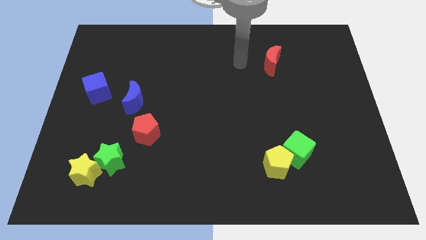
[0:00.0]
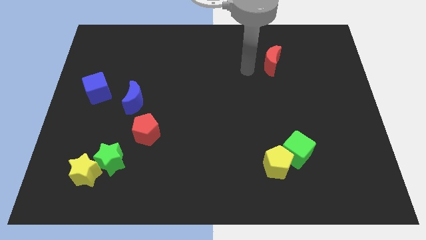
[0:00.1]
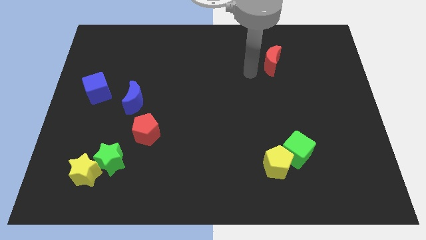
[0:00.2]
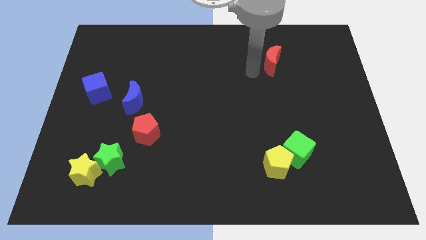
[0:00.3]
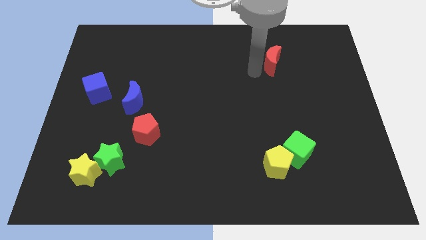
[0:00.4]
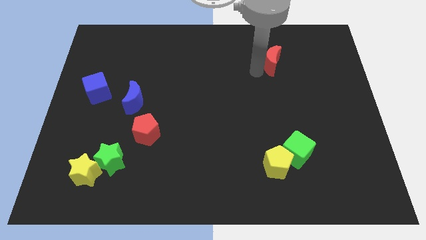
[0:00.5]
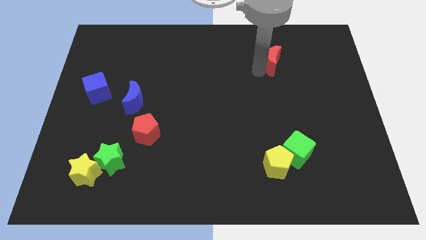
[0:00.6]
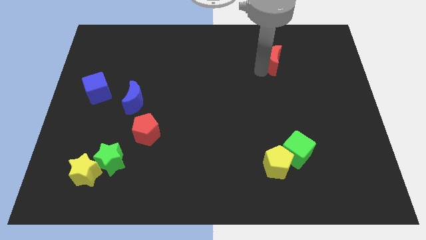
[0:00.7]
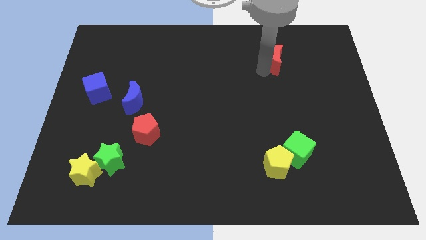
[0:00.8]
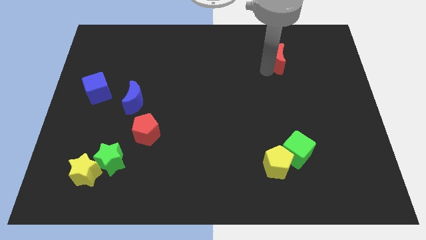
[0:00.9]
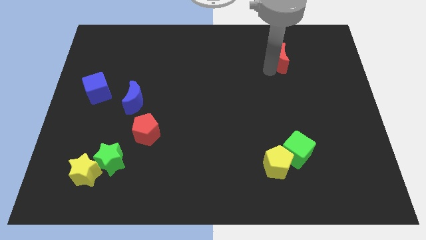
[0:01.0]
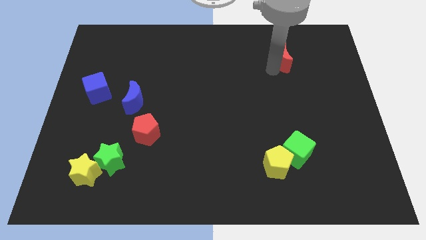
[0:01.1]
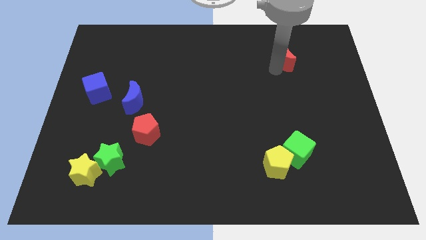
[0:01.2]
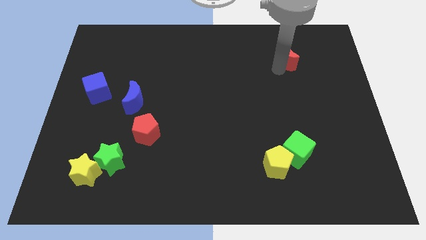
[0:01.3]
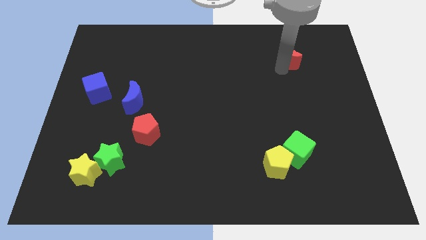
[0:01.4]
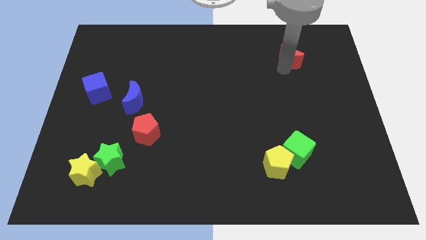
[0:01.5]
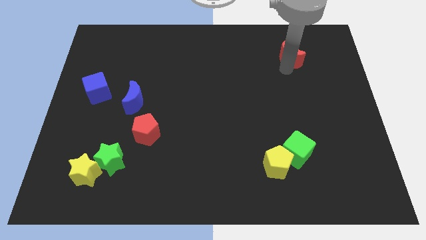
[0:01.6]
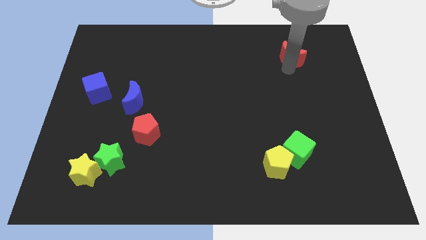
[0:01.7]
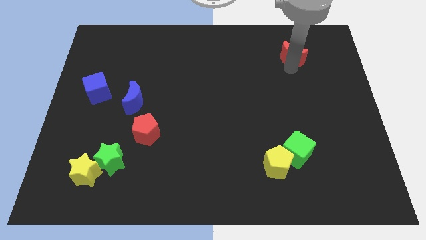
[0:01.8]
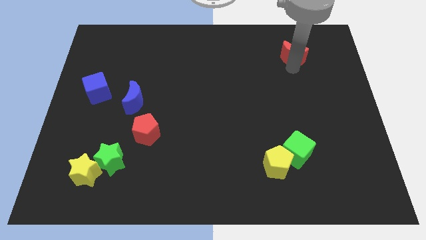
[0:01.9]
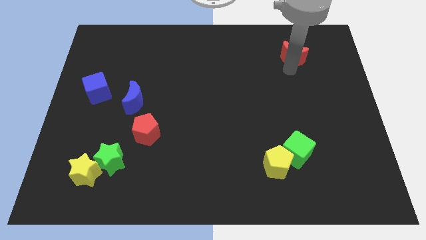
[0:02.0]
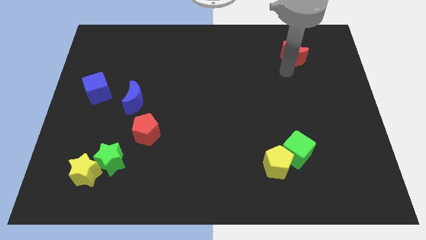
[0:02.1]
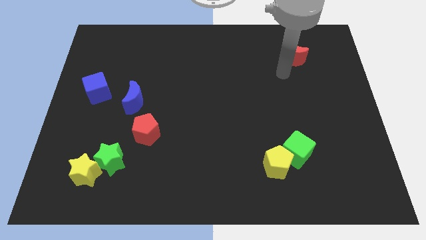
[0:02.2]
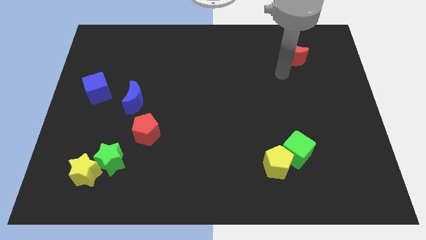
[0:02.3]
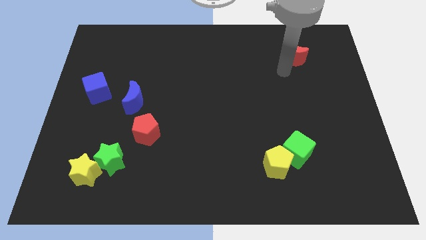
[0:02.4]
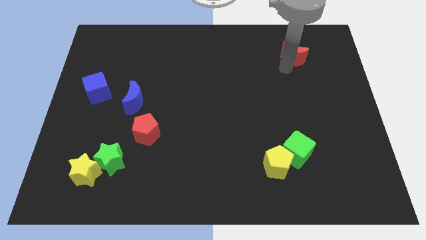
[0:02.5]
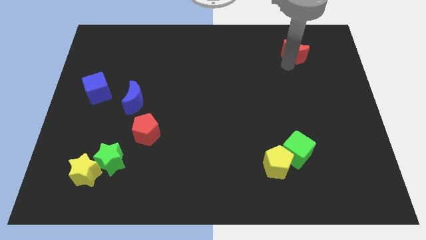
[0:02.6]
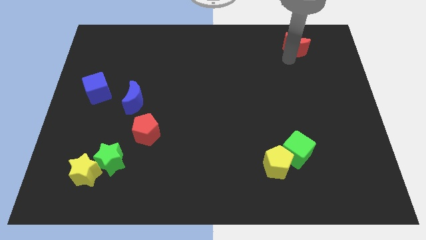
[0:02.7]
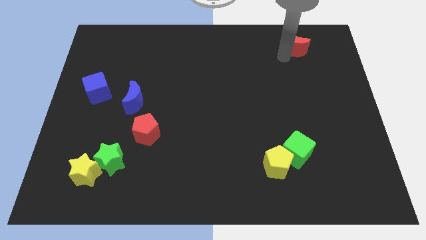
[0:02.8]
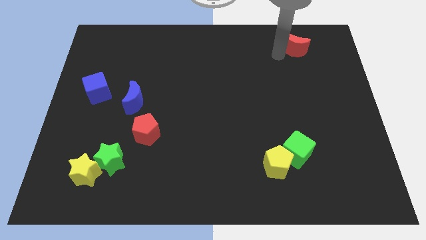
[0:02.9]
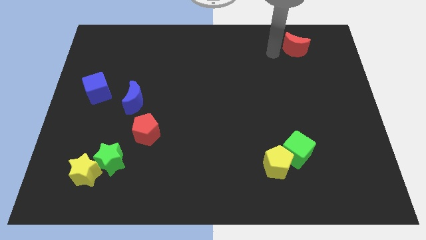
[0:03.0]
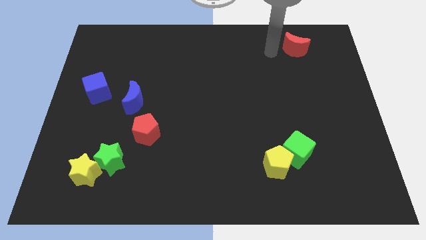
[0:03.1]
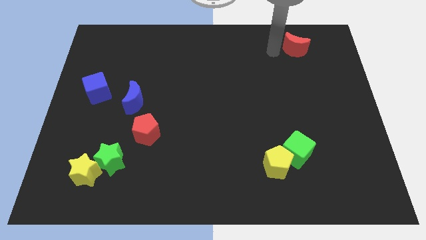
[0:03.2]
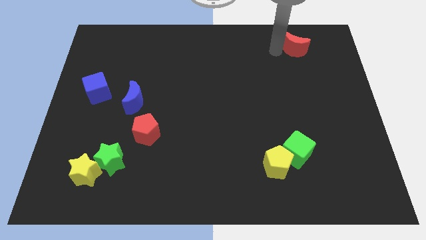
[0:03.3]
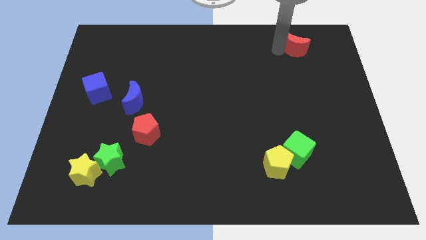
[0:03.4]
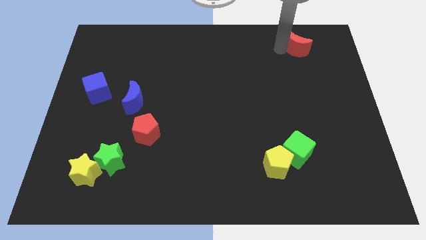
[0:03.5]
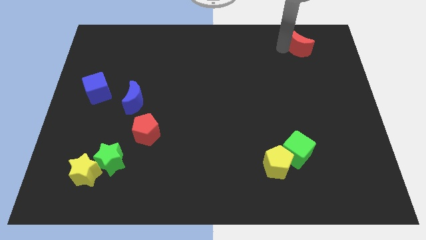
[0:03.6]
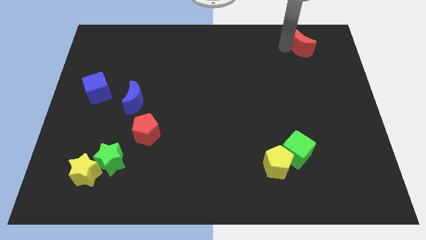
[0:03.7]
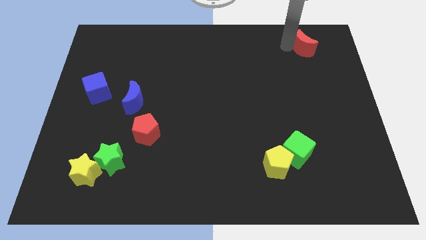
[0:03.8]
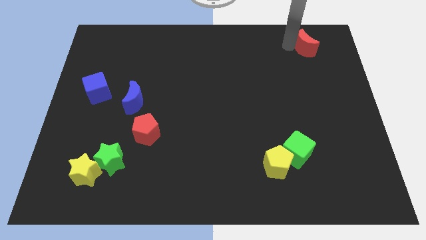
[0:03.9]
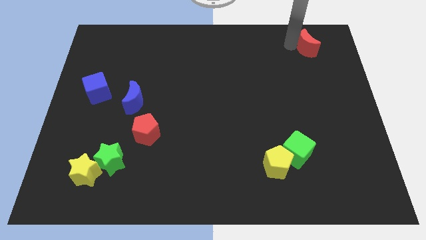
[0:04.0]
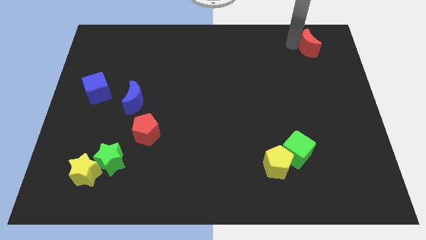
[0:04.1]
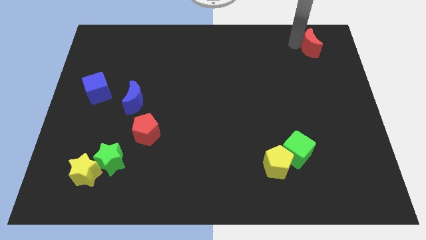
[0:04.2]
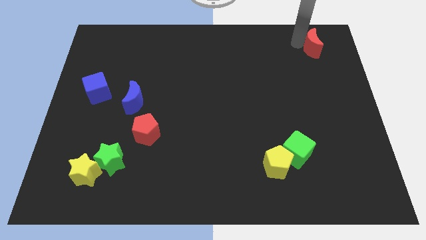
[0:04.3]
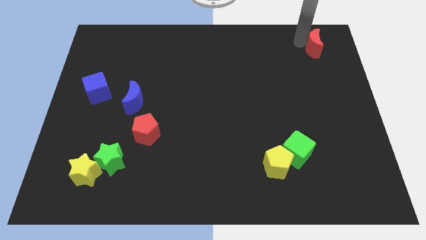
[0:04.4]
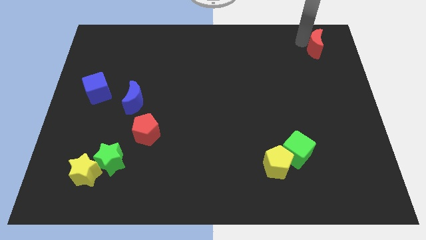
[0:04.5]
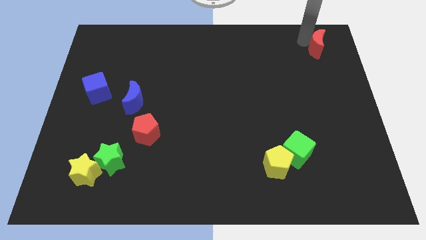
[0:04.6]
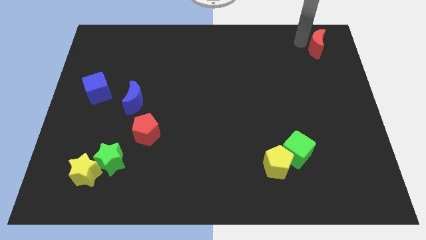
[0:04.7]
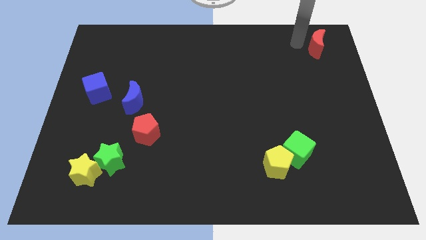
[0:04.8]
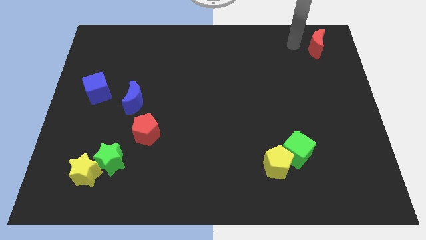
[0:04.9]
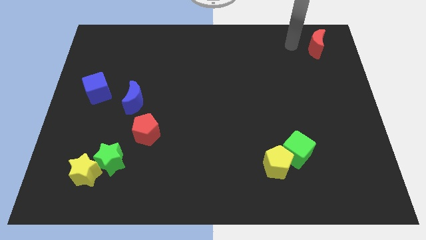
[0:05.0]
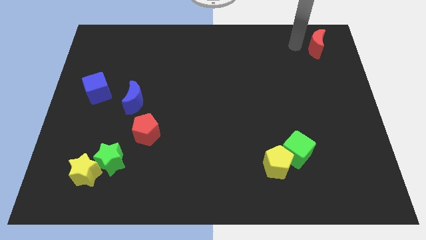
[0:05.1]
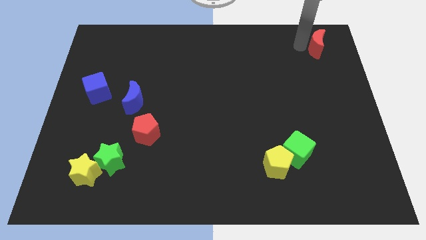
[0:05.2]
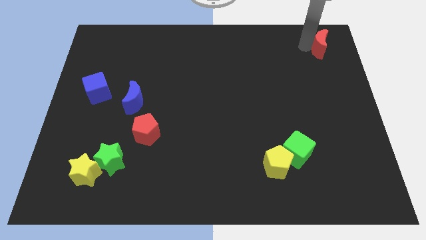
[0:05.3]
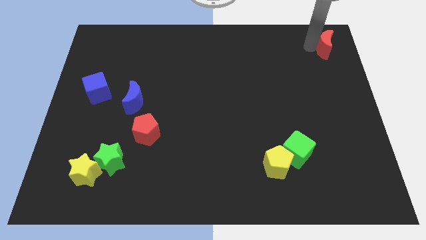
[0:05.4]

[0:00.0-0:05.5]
push the red moon to the top right of the board
